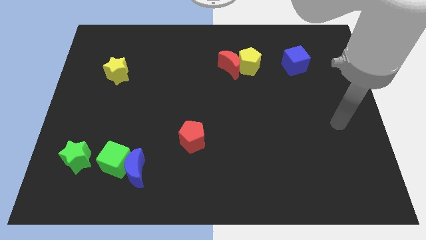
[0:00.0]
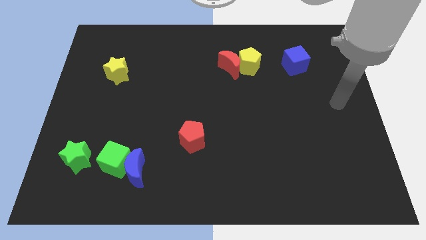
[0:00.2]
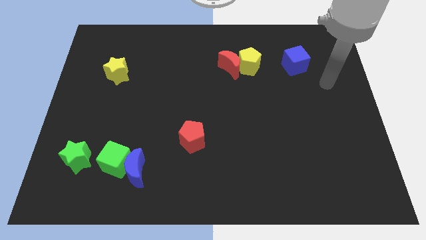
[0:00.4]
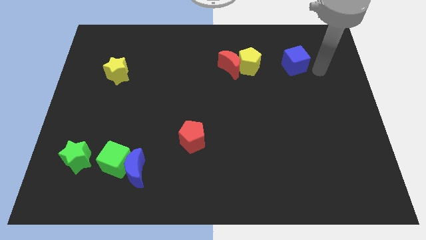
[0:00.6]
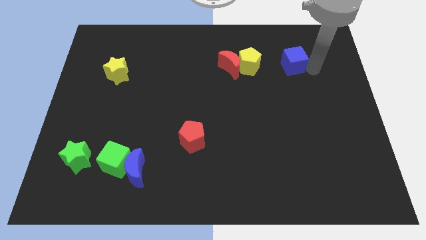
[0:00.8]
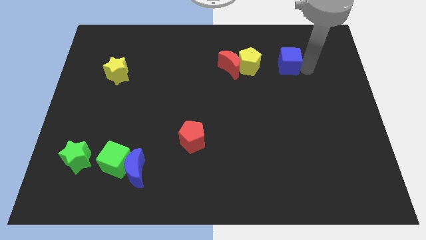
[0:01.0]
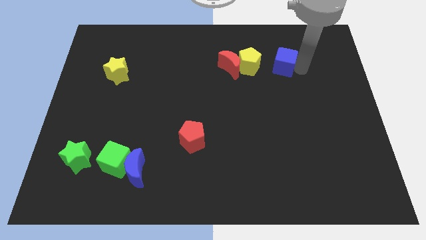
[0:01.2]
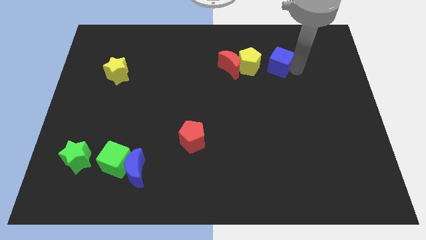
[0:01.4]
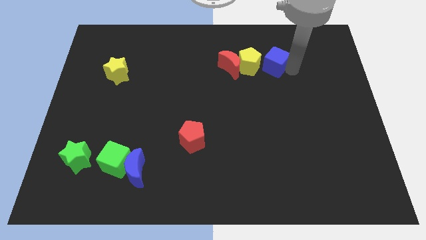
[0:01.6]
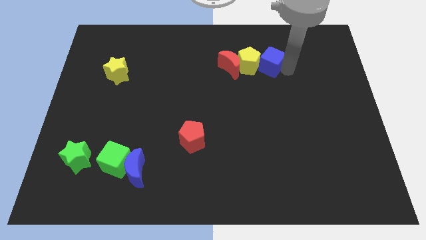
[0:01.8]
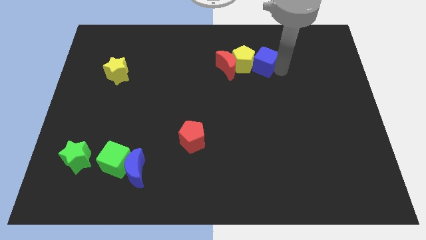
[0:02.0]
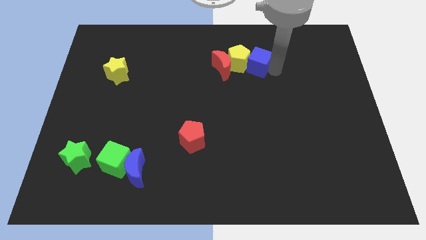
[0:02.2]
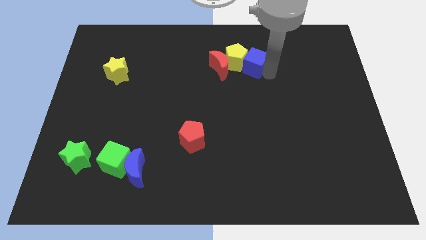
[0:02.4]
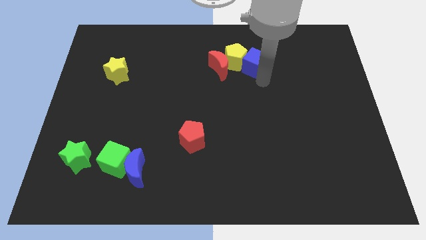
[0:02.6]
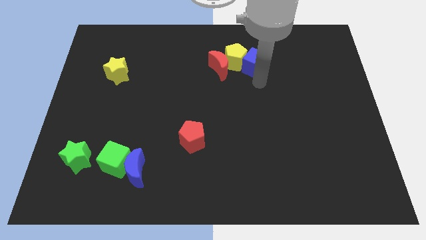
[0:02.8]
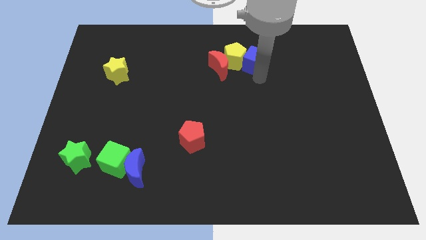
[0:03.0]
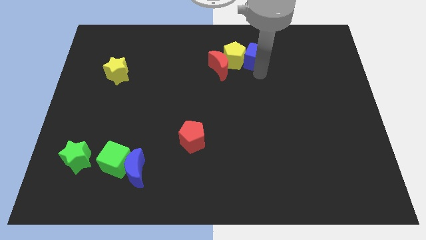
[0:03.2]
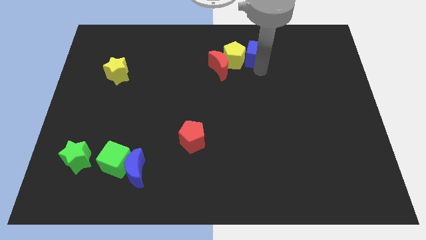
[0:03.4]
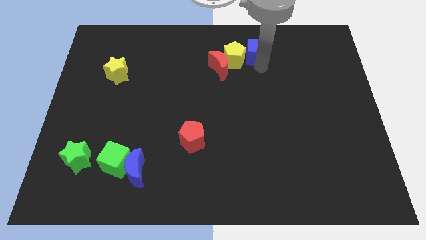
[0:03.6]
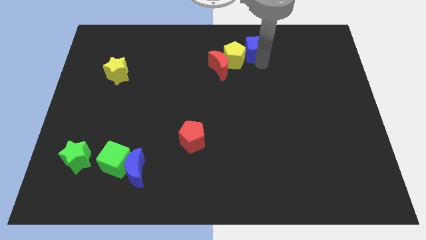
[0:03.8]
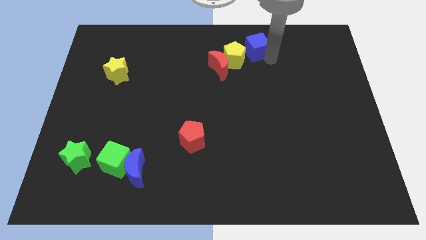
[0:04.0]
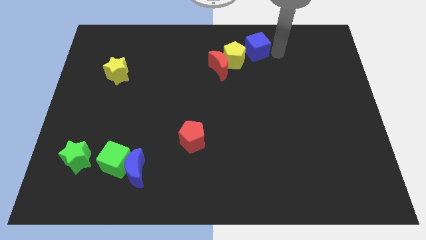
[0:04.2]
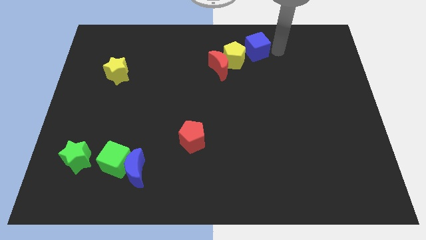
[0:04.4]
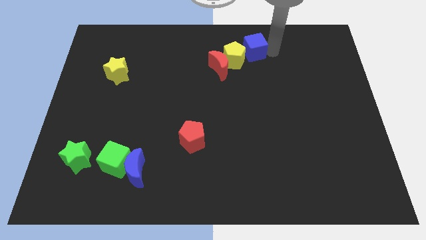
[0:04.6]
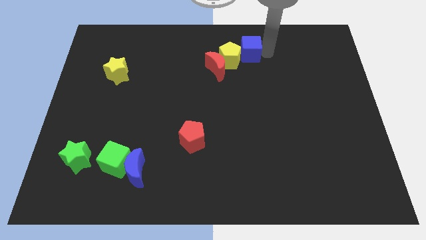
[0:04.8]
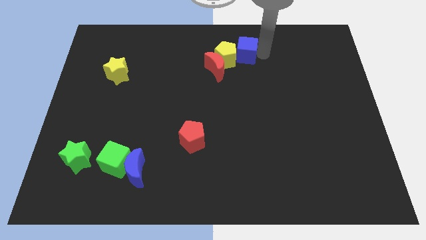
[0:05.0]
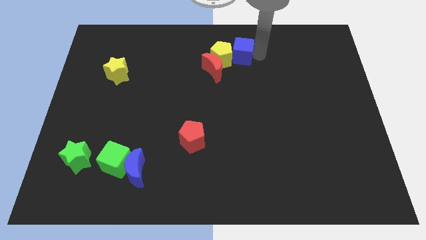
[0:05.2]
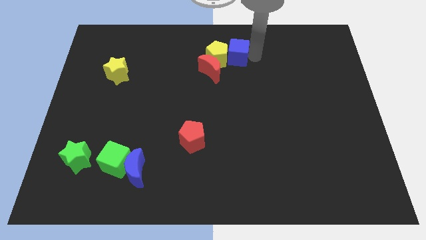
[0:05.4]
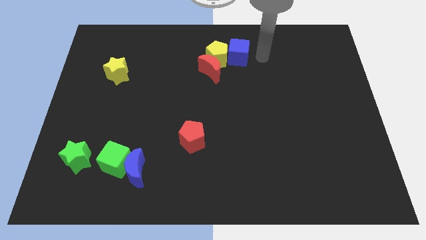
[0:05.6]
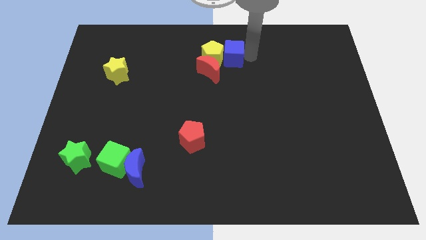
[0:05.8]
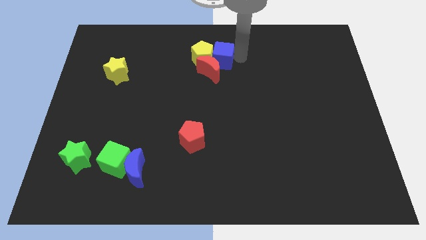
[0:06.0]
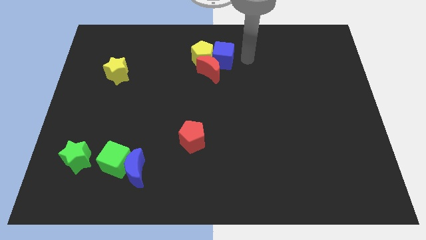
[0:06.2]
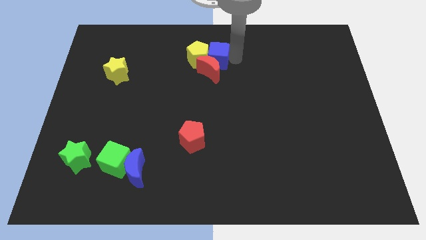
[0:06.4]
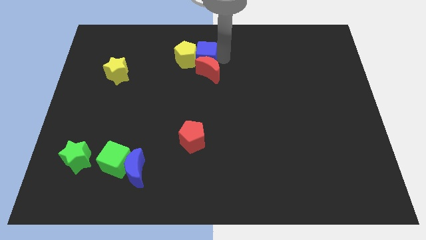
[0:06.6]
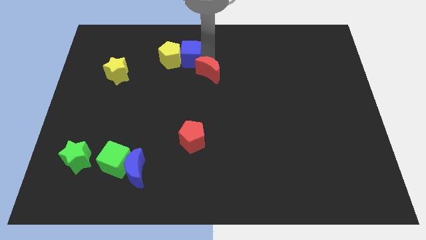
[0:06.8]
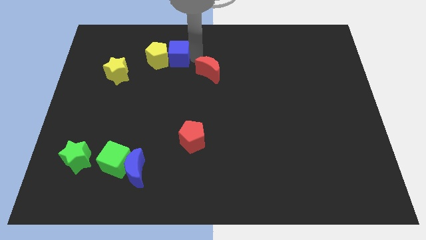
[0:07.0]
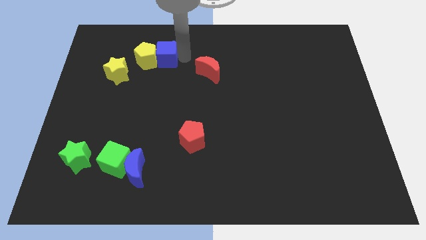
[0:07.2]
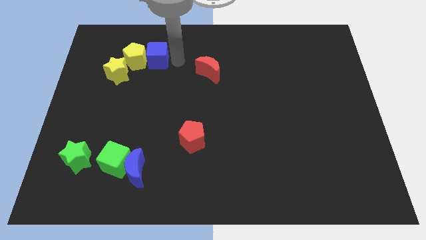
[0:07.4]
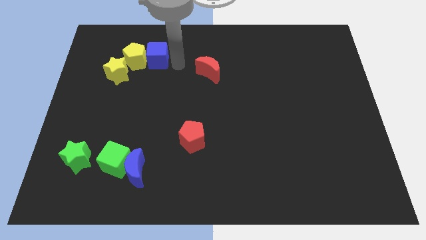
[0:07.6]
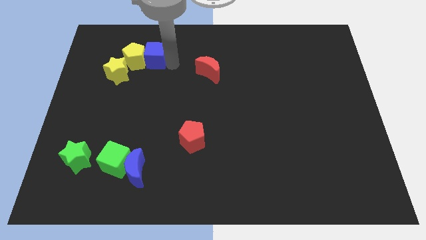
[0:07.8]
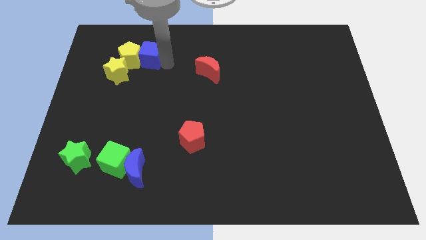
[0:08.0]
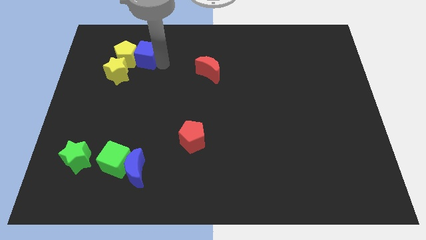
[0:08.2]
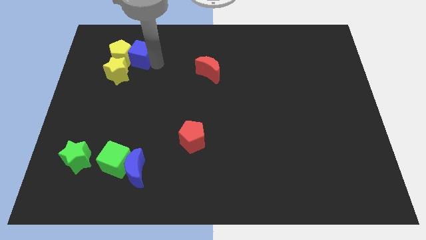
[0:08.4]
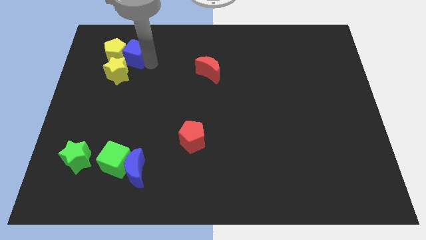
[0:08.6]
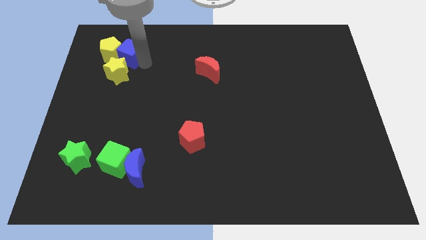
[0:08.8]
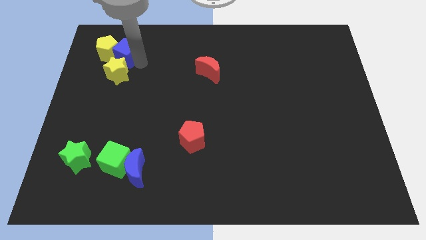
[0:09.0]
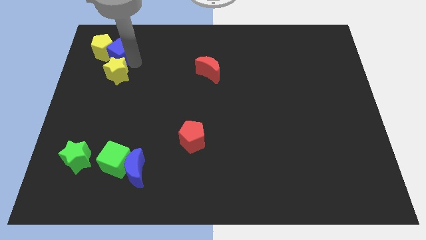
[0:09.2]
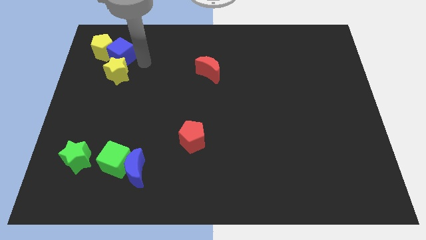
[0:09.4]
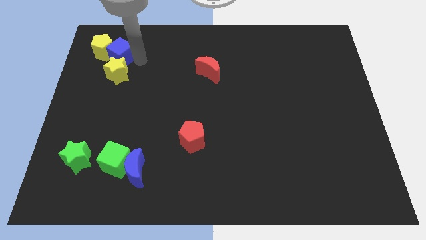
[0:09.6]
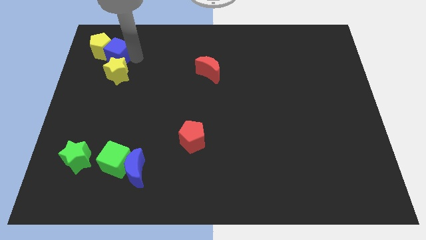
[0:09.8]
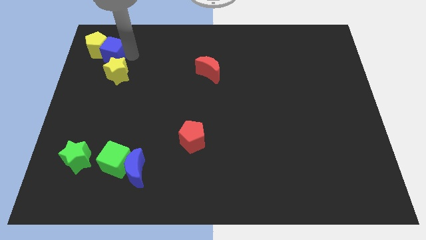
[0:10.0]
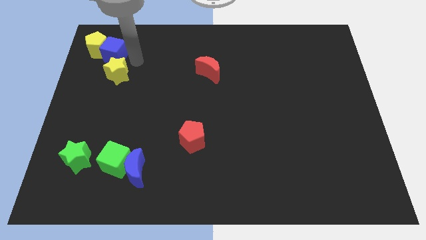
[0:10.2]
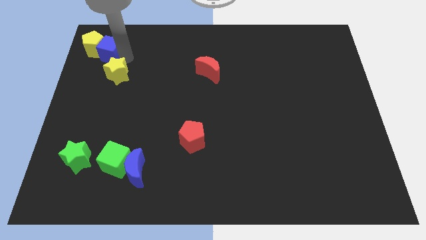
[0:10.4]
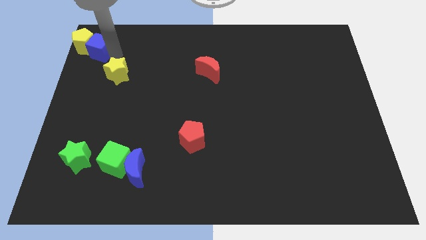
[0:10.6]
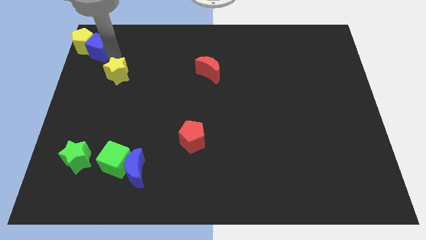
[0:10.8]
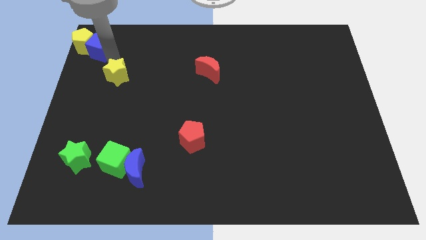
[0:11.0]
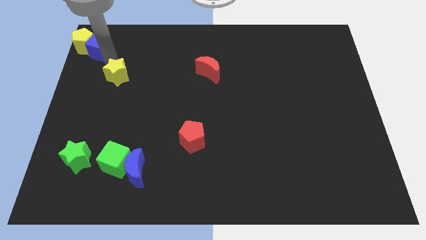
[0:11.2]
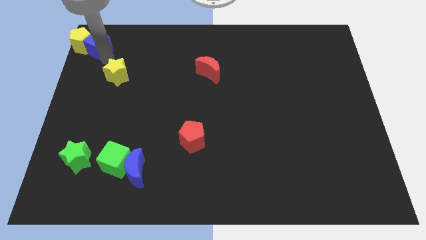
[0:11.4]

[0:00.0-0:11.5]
slide the blue cube to the upper left corner

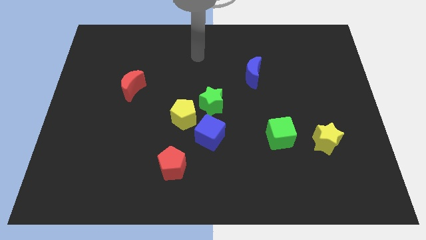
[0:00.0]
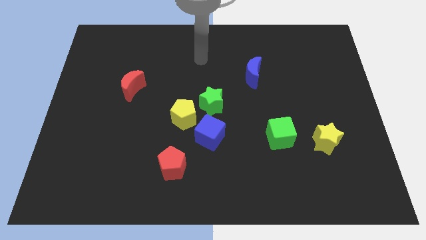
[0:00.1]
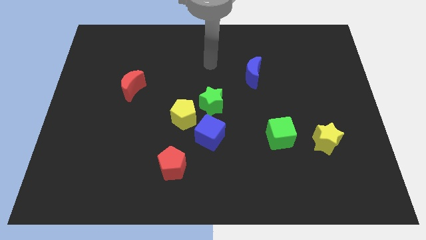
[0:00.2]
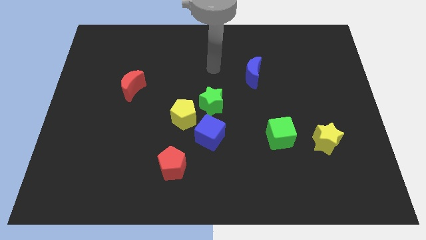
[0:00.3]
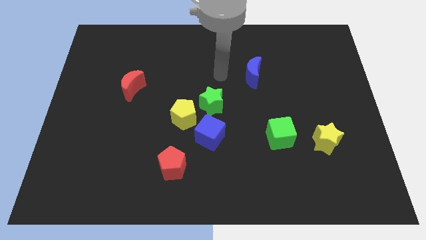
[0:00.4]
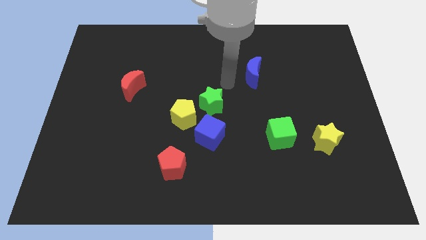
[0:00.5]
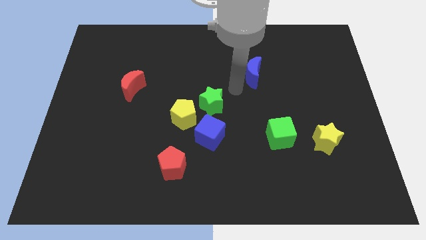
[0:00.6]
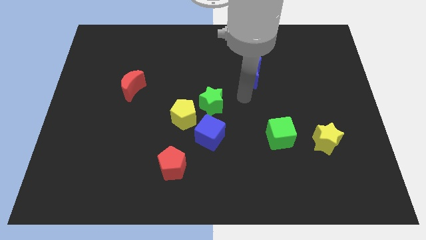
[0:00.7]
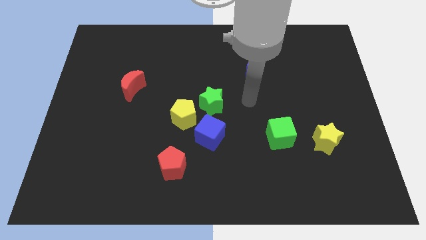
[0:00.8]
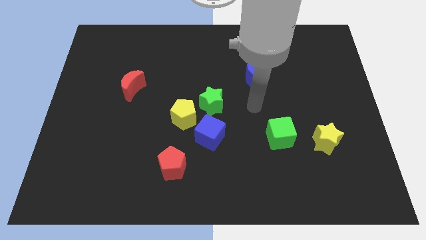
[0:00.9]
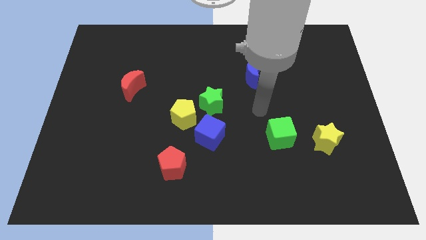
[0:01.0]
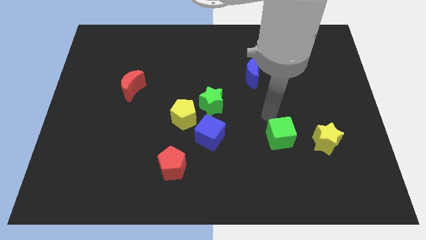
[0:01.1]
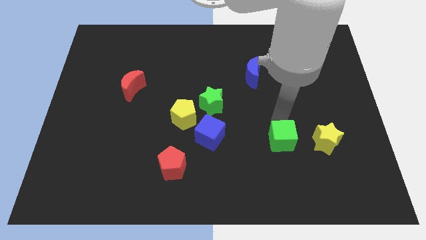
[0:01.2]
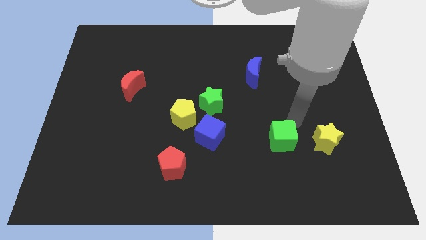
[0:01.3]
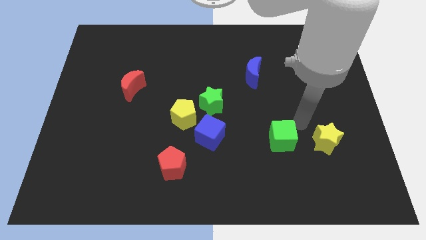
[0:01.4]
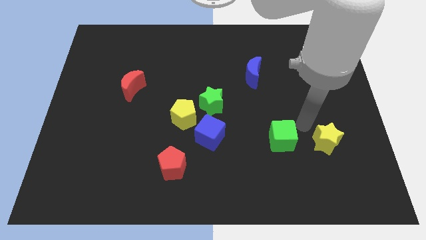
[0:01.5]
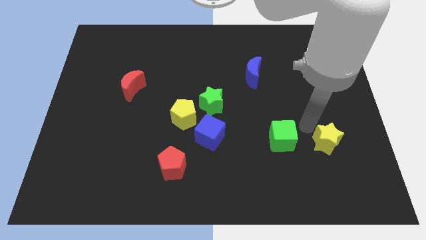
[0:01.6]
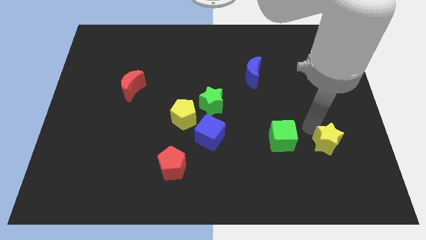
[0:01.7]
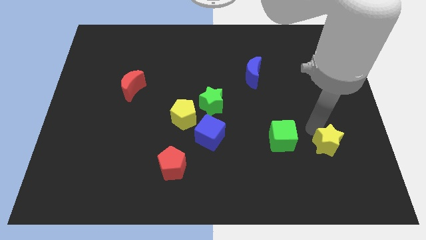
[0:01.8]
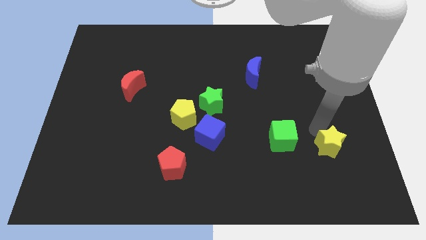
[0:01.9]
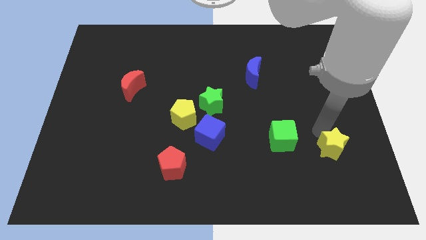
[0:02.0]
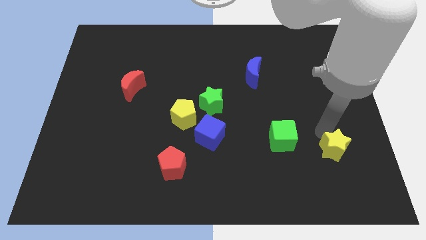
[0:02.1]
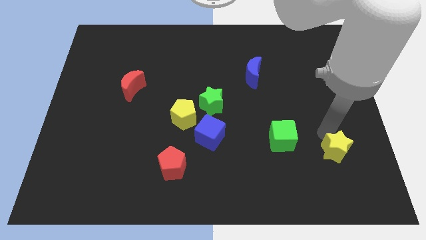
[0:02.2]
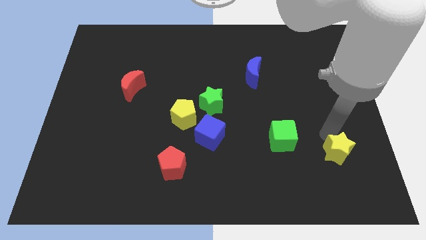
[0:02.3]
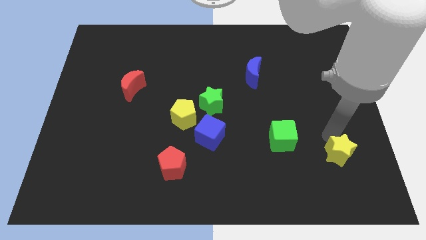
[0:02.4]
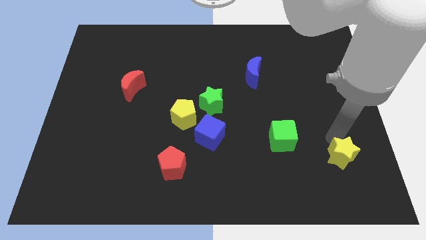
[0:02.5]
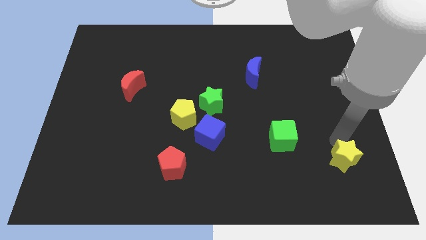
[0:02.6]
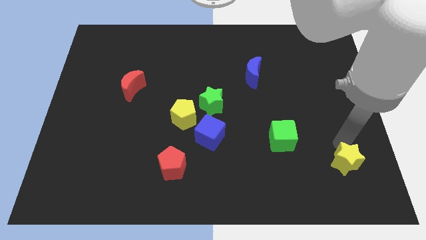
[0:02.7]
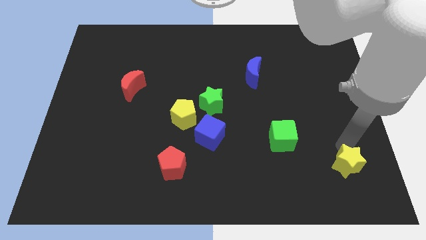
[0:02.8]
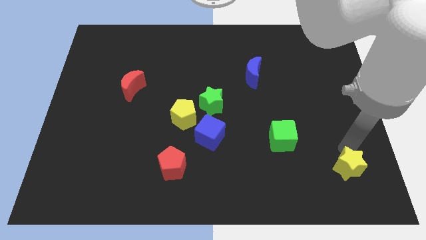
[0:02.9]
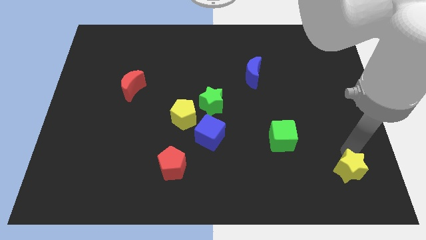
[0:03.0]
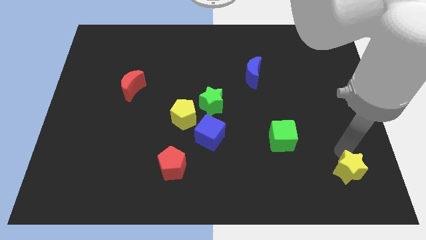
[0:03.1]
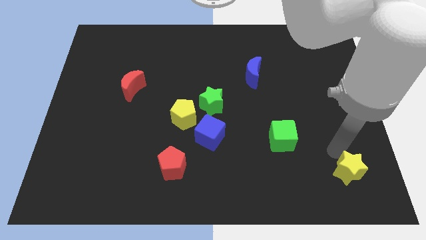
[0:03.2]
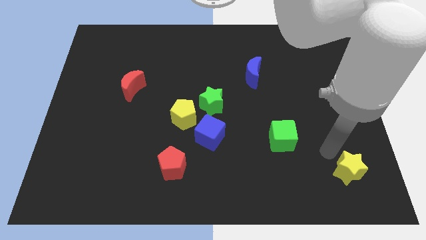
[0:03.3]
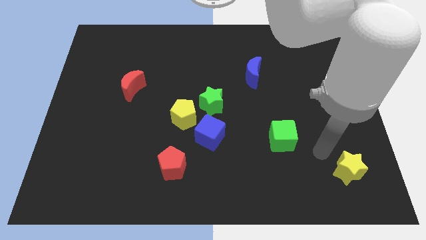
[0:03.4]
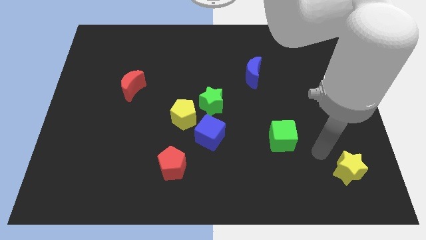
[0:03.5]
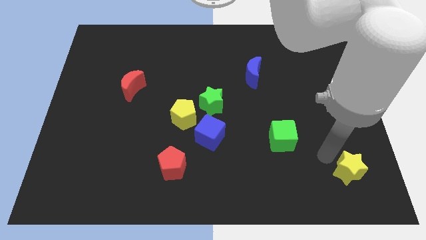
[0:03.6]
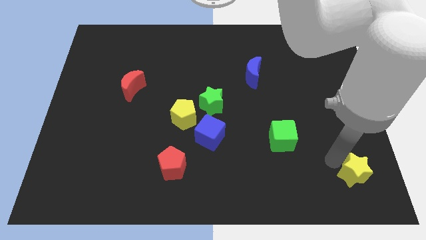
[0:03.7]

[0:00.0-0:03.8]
push the yellow star to the bottom right
